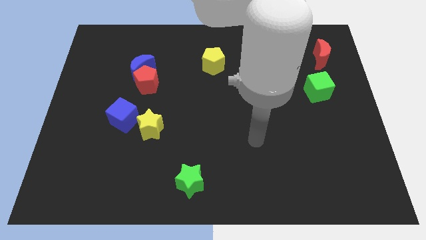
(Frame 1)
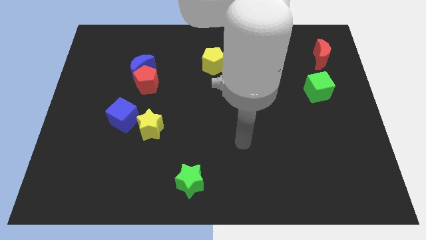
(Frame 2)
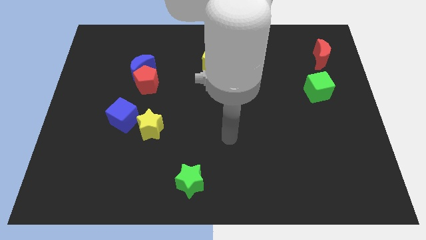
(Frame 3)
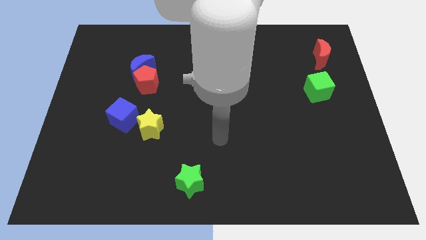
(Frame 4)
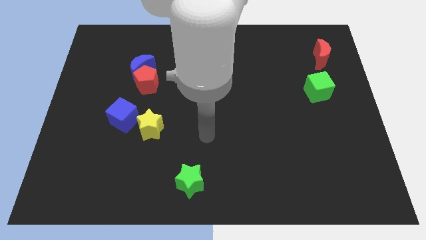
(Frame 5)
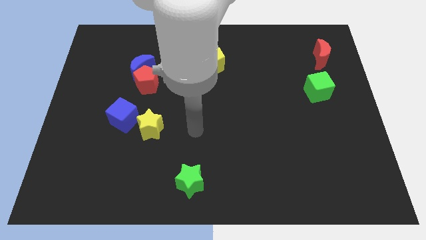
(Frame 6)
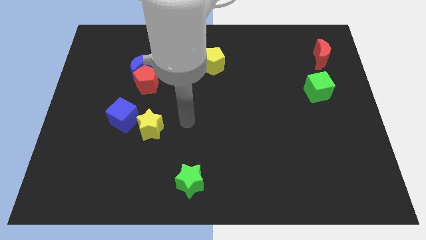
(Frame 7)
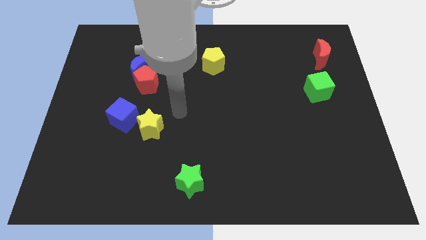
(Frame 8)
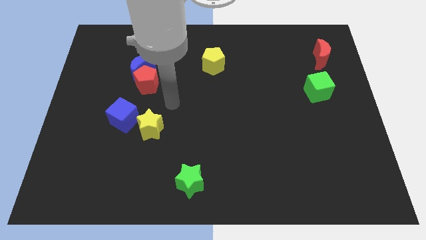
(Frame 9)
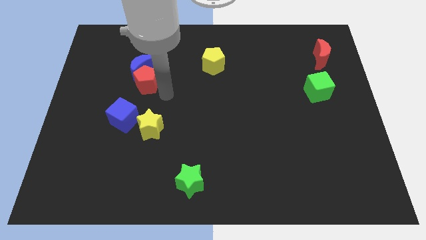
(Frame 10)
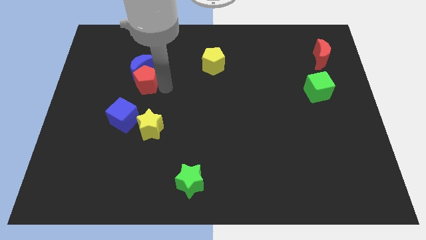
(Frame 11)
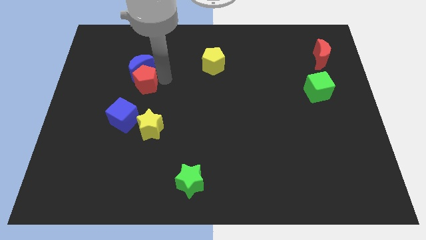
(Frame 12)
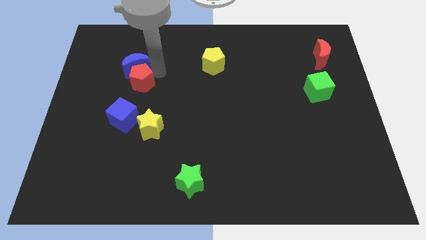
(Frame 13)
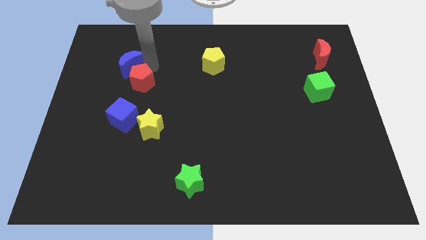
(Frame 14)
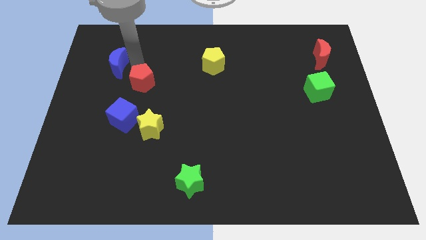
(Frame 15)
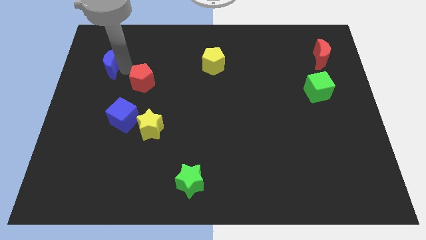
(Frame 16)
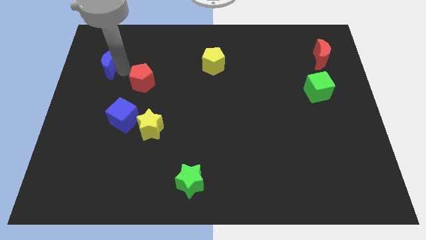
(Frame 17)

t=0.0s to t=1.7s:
pull the red pentagon apart from the blue moon

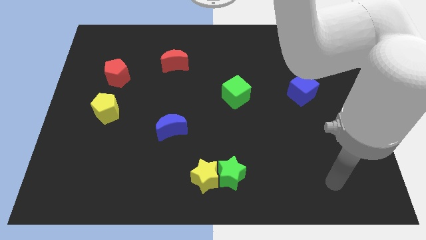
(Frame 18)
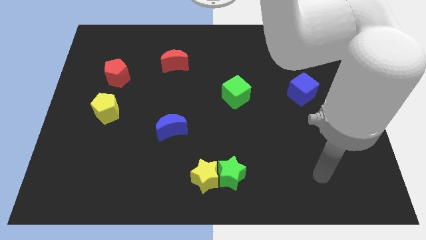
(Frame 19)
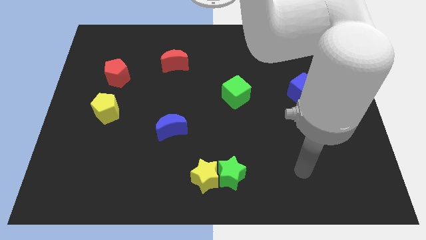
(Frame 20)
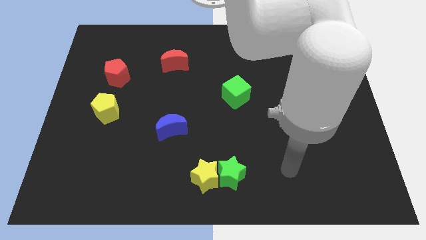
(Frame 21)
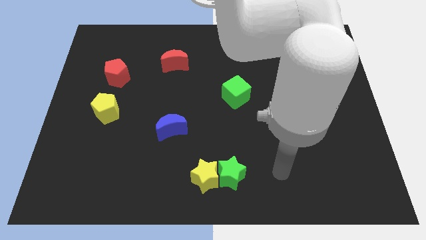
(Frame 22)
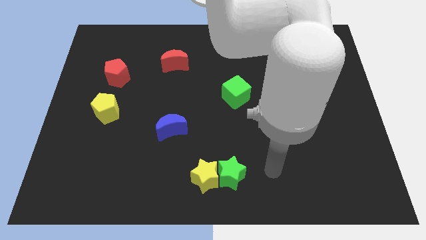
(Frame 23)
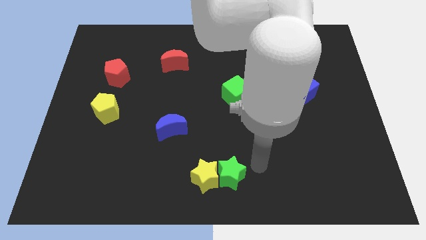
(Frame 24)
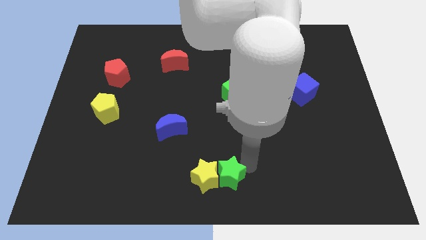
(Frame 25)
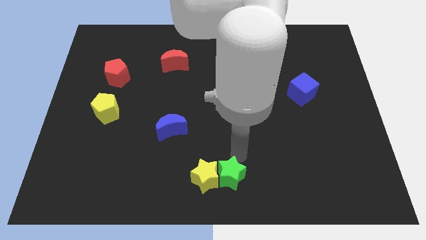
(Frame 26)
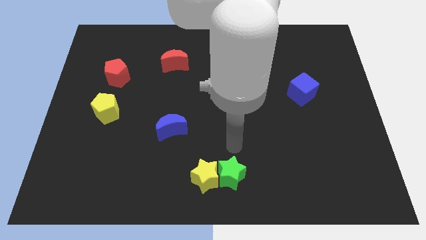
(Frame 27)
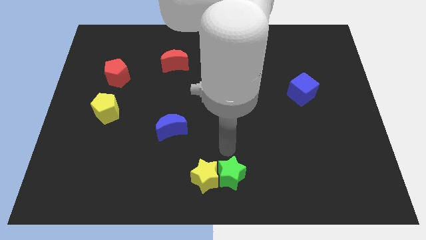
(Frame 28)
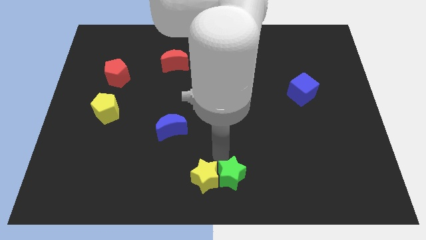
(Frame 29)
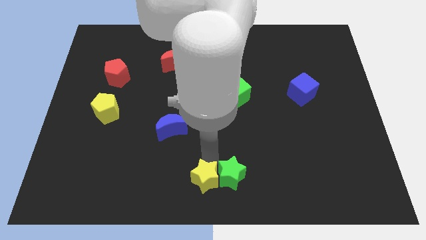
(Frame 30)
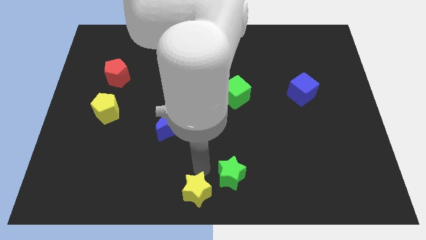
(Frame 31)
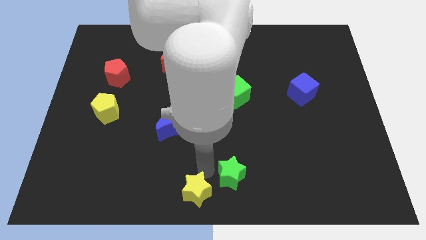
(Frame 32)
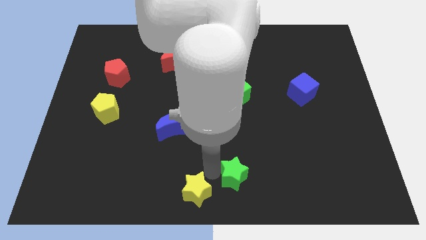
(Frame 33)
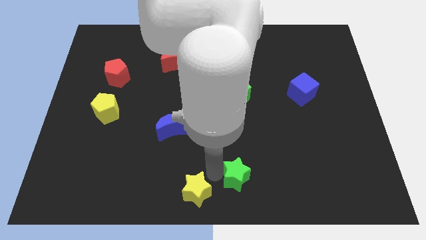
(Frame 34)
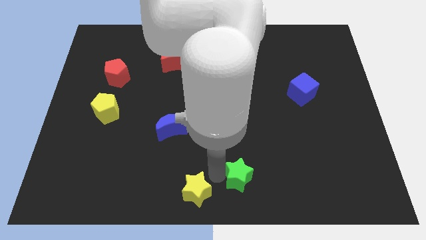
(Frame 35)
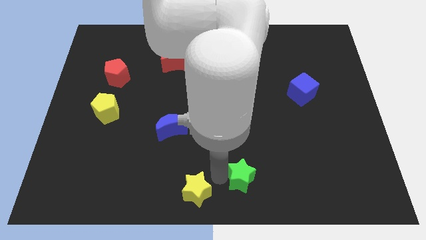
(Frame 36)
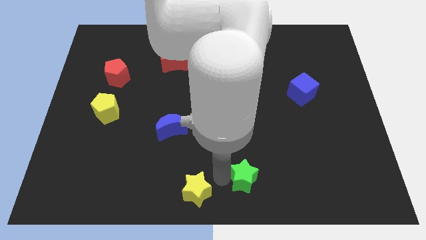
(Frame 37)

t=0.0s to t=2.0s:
pull the green star apart from the yellow star

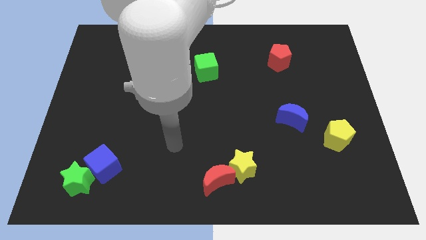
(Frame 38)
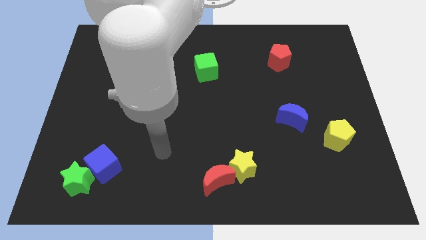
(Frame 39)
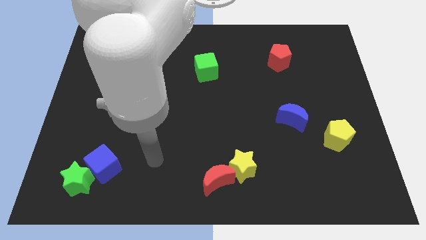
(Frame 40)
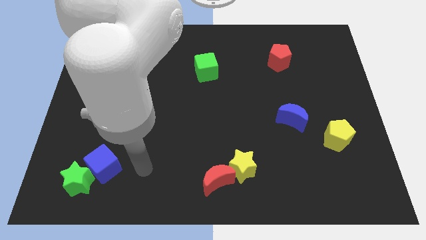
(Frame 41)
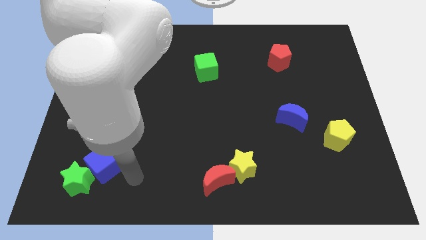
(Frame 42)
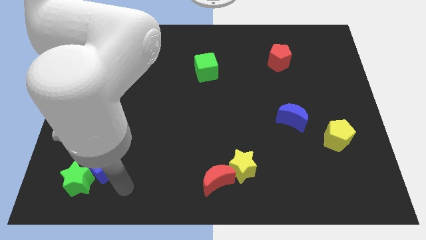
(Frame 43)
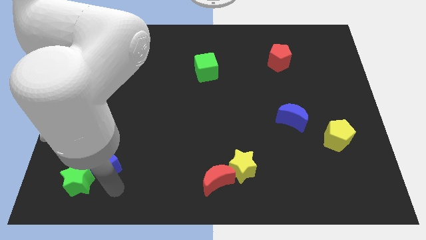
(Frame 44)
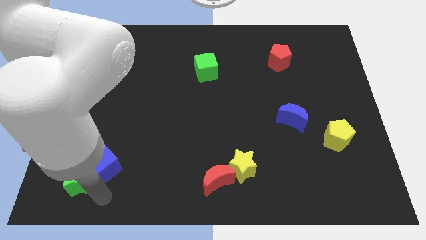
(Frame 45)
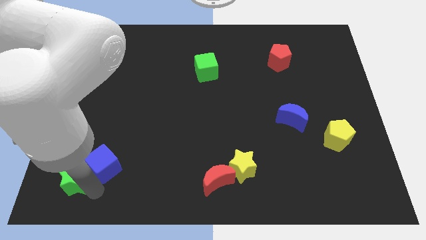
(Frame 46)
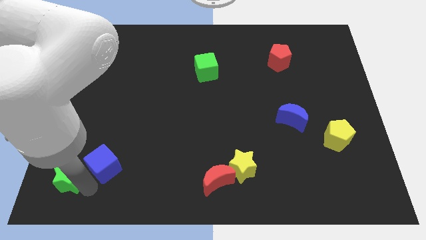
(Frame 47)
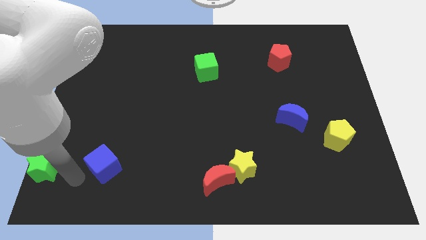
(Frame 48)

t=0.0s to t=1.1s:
separate the blue cube from the green star

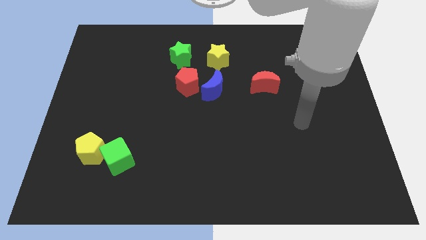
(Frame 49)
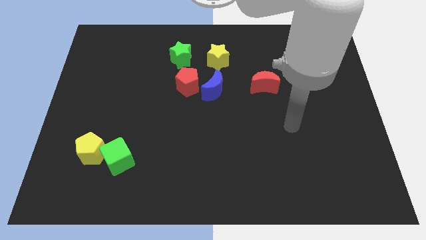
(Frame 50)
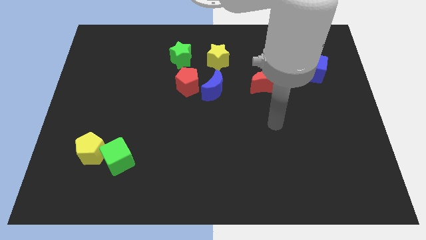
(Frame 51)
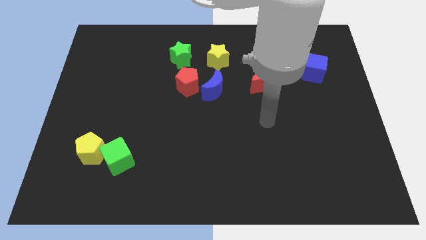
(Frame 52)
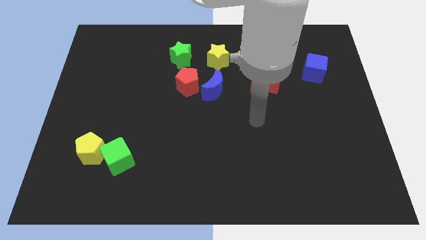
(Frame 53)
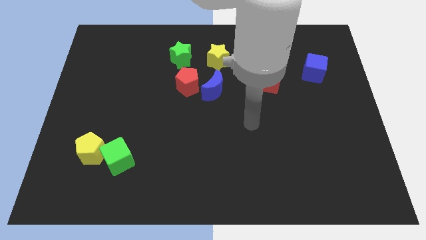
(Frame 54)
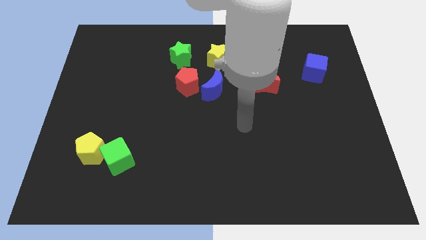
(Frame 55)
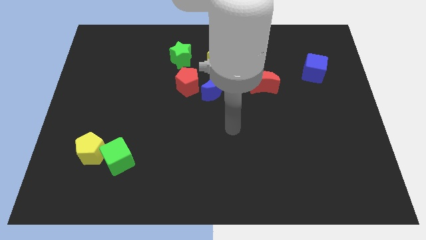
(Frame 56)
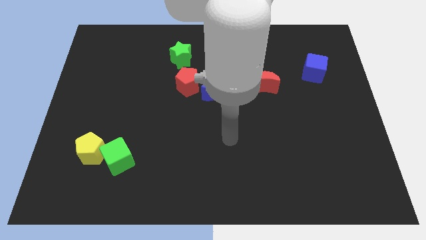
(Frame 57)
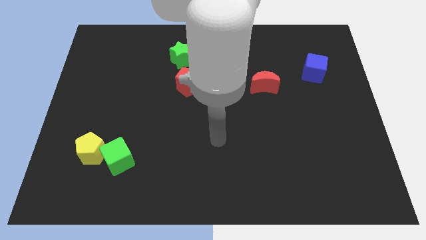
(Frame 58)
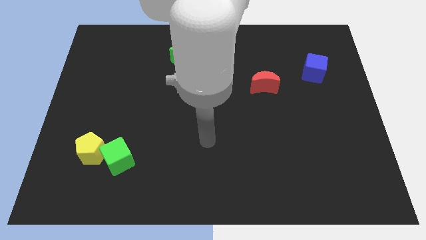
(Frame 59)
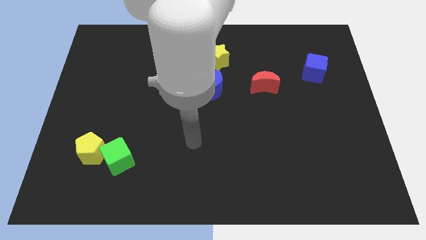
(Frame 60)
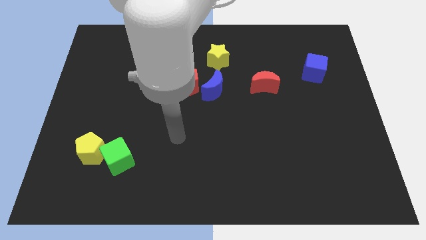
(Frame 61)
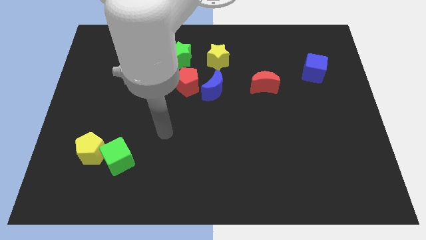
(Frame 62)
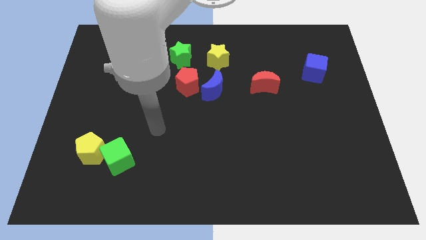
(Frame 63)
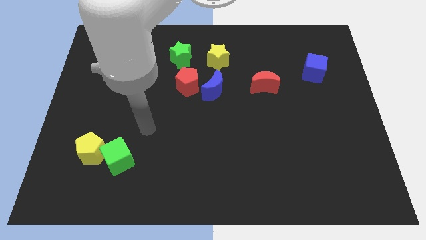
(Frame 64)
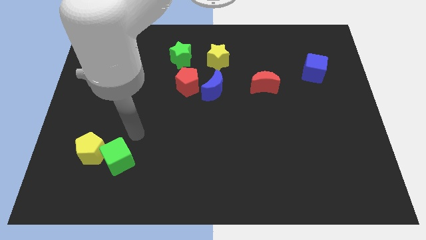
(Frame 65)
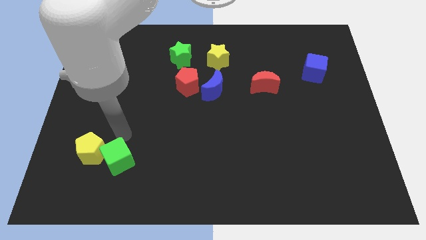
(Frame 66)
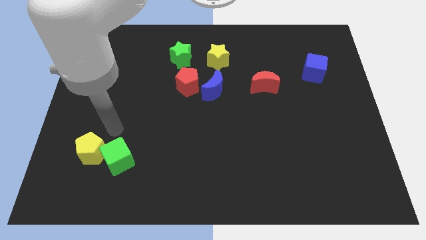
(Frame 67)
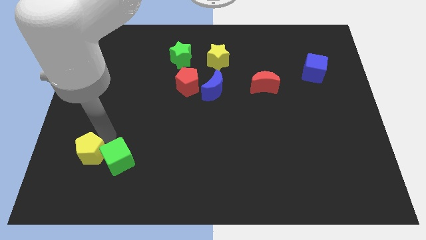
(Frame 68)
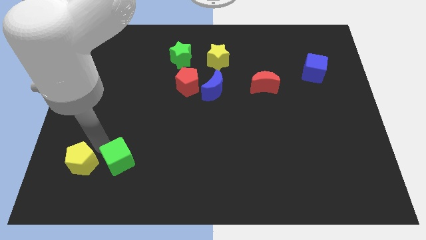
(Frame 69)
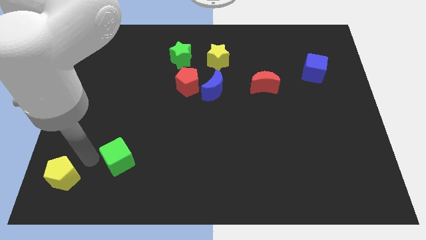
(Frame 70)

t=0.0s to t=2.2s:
pull the green cube apart from the yellow pentagon

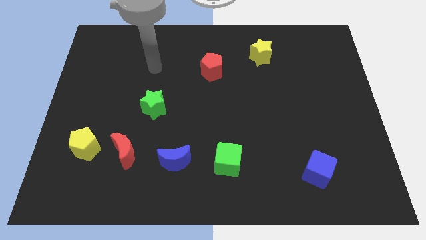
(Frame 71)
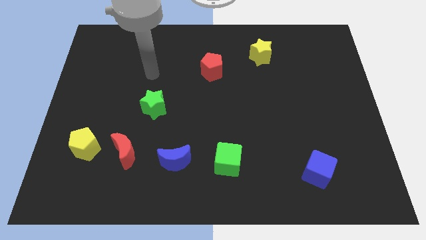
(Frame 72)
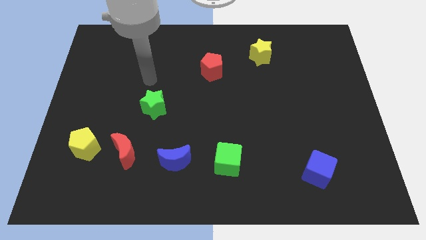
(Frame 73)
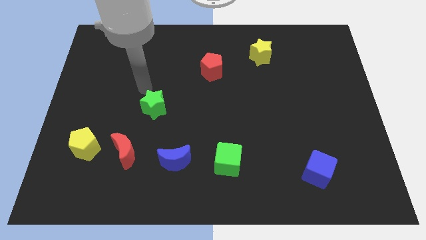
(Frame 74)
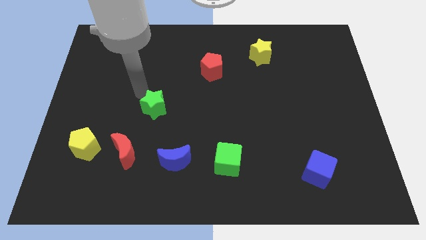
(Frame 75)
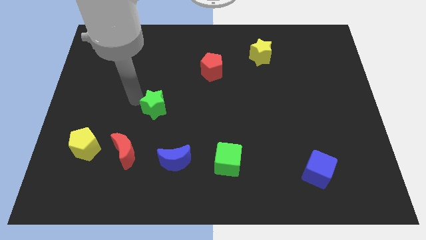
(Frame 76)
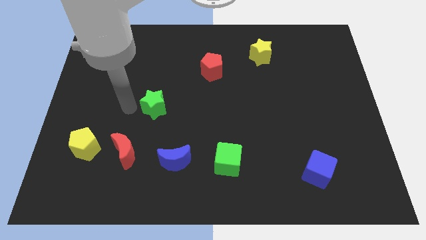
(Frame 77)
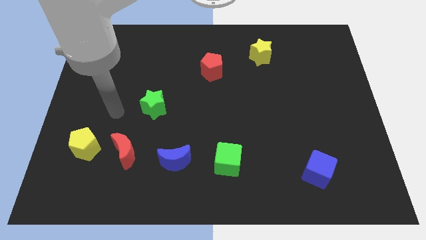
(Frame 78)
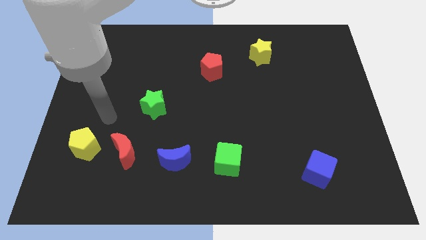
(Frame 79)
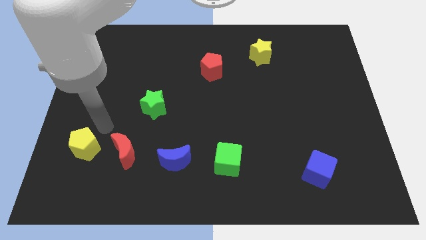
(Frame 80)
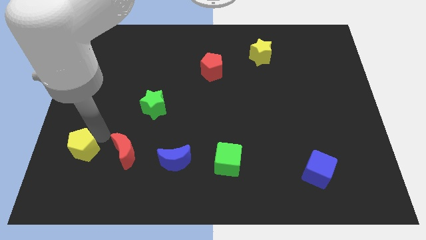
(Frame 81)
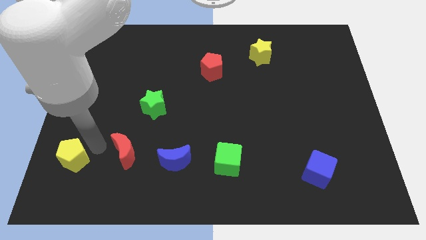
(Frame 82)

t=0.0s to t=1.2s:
separate the red moon from the yellow pentagon

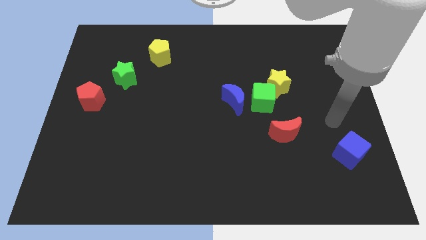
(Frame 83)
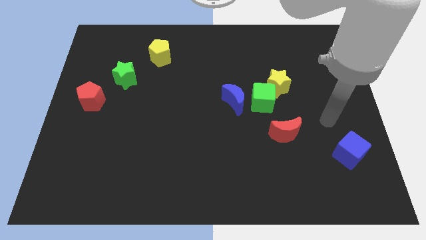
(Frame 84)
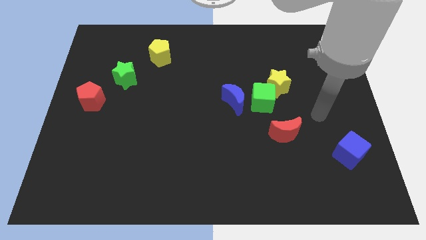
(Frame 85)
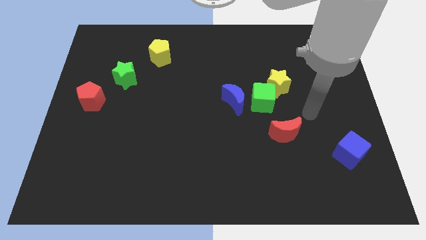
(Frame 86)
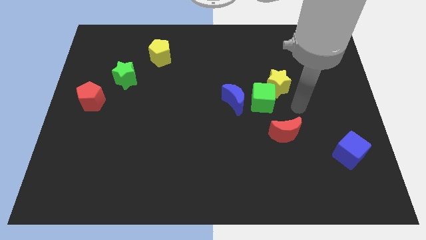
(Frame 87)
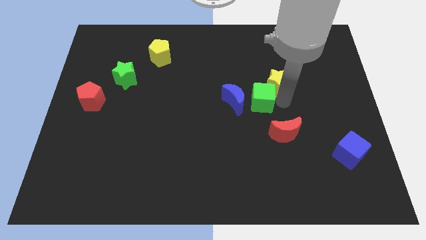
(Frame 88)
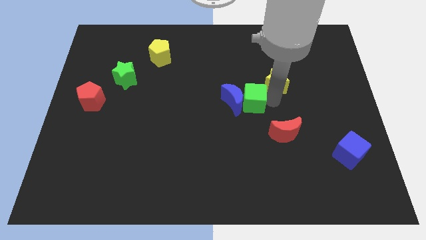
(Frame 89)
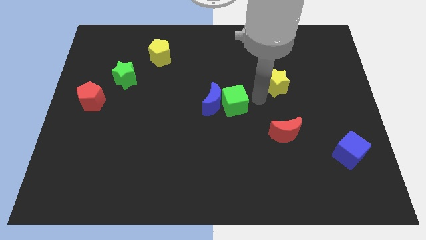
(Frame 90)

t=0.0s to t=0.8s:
separate the yellow star from the green cube

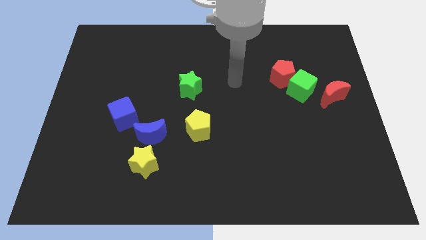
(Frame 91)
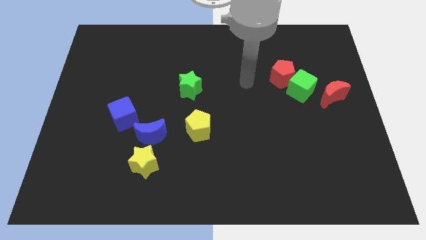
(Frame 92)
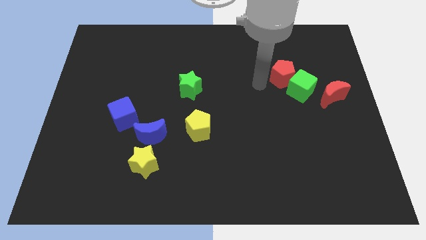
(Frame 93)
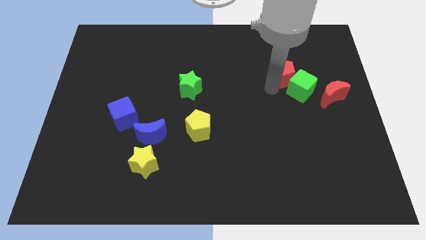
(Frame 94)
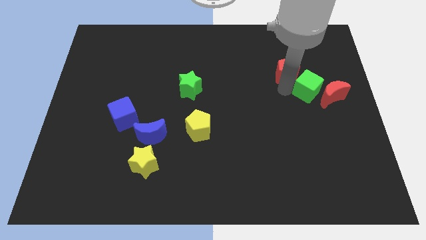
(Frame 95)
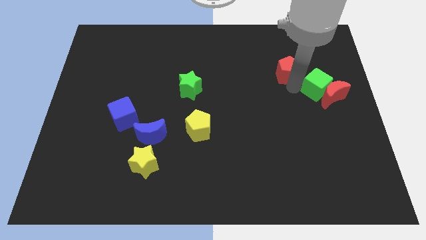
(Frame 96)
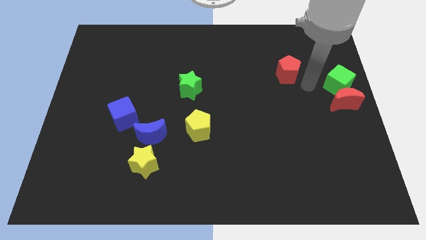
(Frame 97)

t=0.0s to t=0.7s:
separate the red pentagon from the green cube
